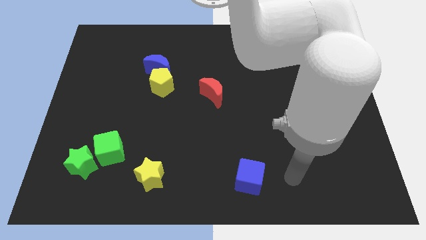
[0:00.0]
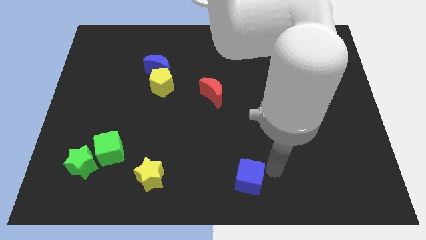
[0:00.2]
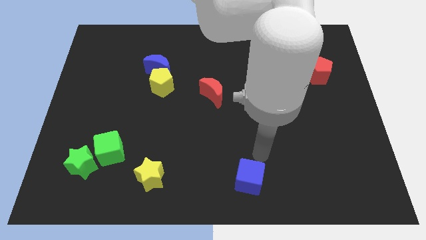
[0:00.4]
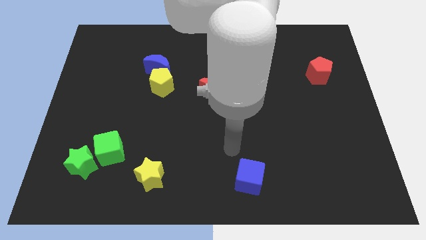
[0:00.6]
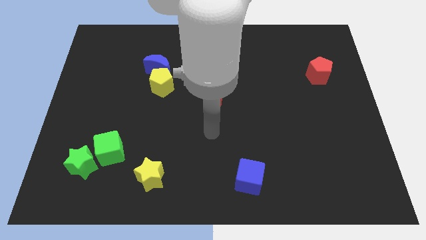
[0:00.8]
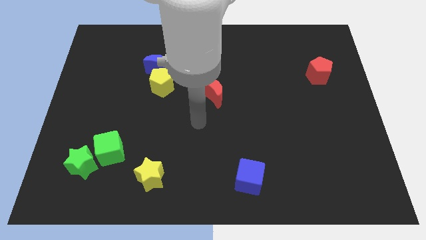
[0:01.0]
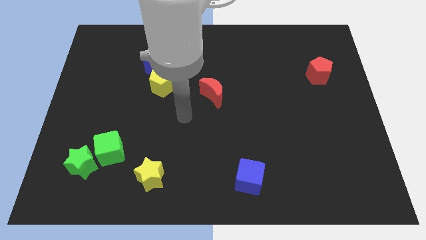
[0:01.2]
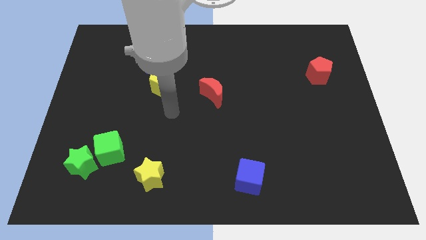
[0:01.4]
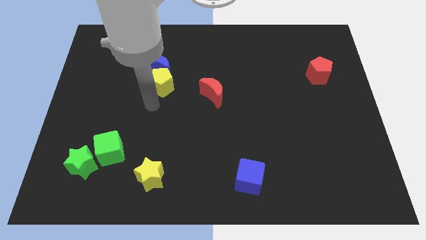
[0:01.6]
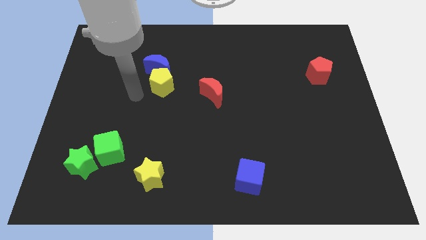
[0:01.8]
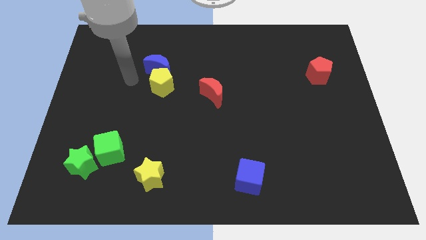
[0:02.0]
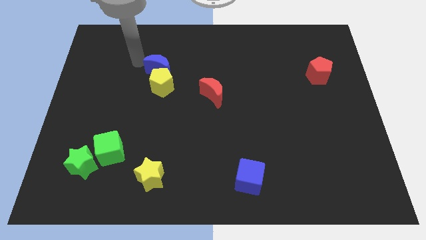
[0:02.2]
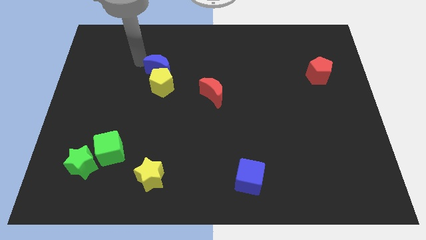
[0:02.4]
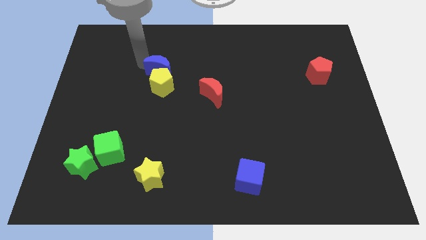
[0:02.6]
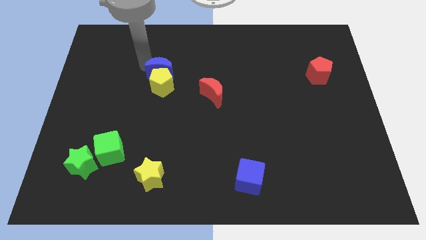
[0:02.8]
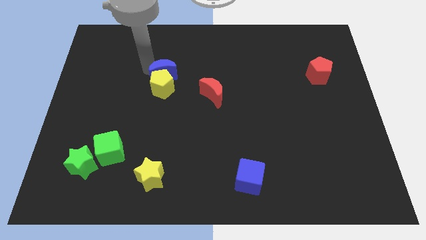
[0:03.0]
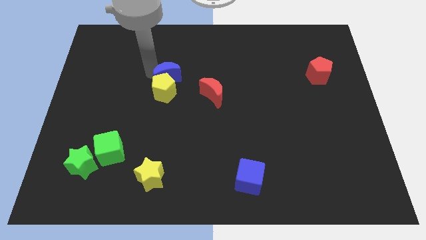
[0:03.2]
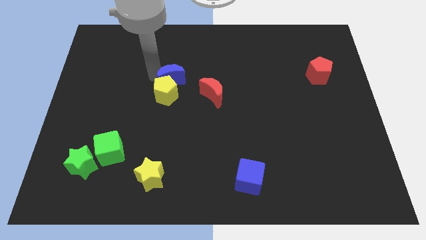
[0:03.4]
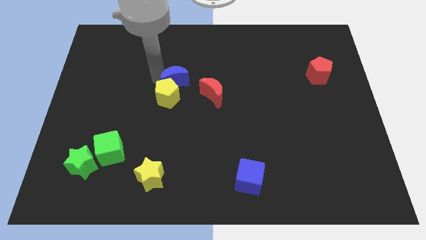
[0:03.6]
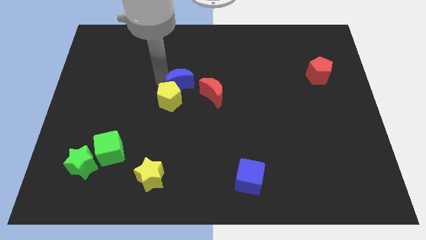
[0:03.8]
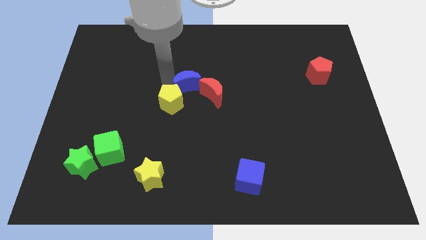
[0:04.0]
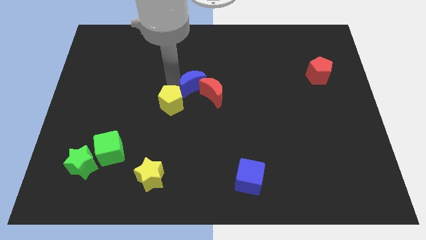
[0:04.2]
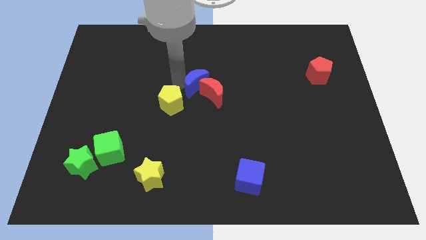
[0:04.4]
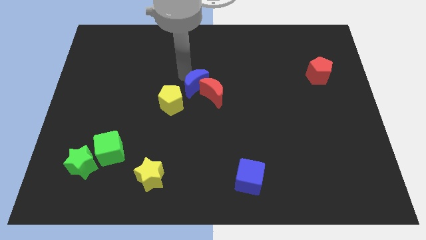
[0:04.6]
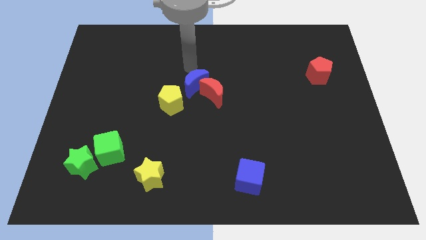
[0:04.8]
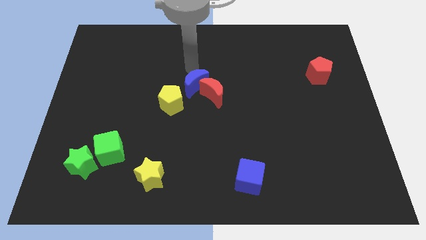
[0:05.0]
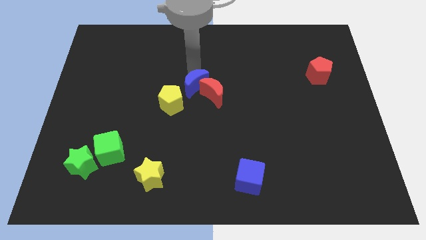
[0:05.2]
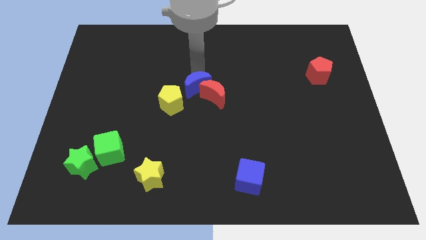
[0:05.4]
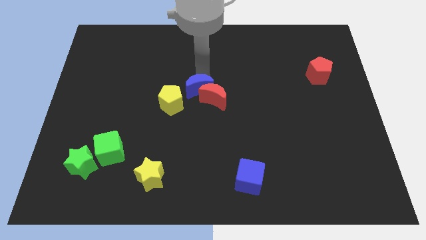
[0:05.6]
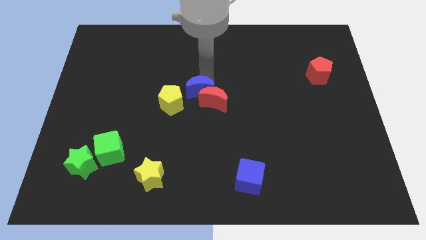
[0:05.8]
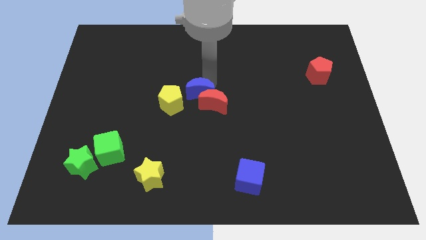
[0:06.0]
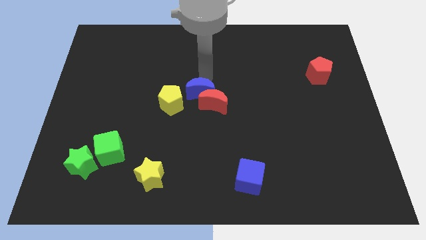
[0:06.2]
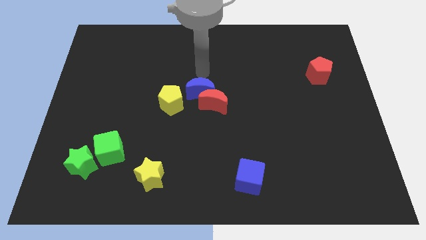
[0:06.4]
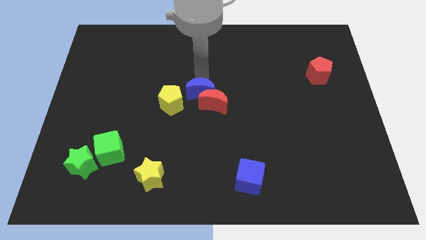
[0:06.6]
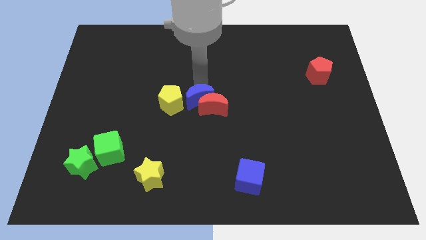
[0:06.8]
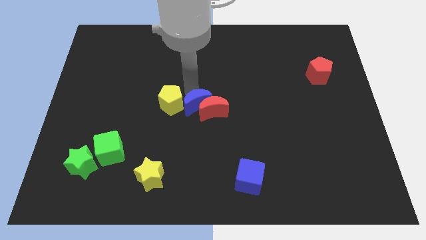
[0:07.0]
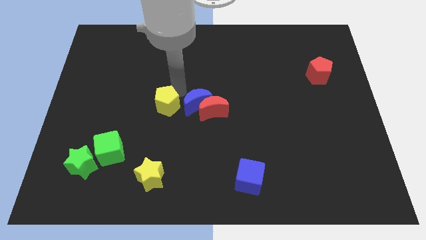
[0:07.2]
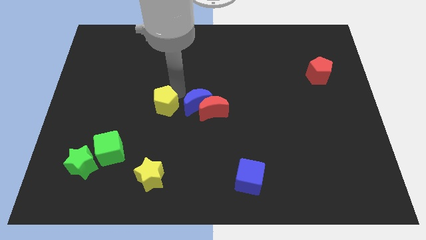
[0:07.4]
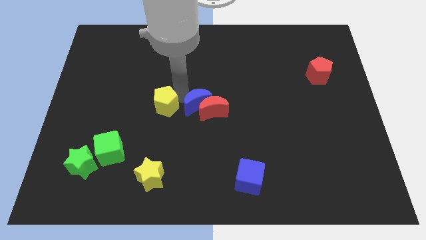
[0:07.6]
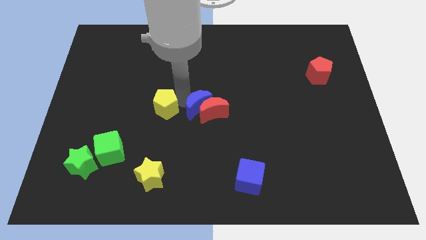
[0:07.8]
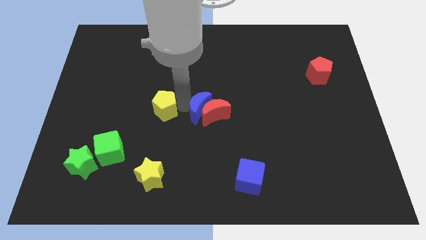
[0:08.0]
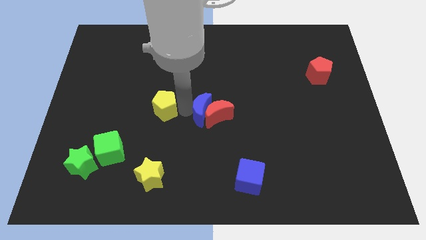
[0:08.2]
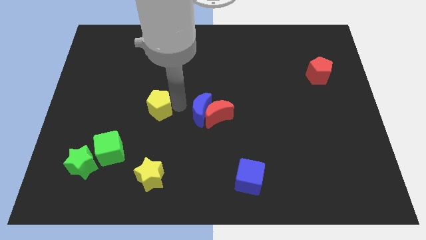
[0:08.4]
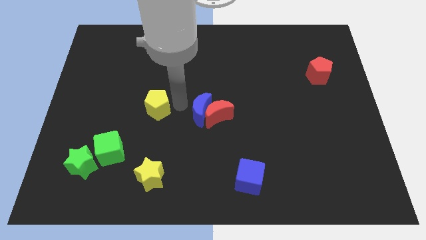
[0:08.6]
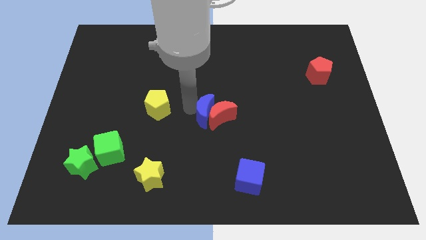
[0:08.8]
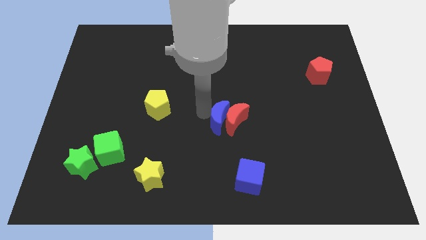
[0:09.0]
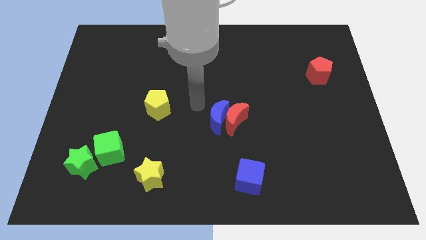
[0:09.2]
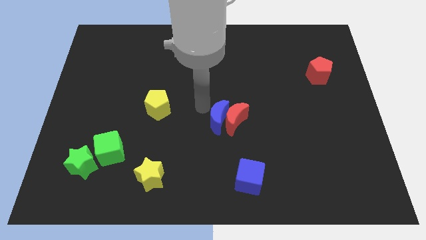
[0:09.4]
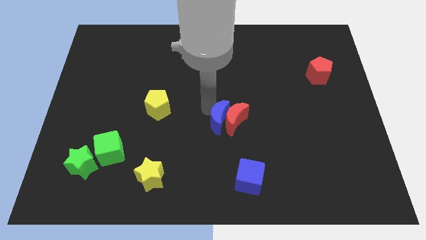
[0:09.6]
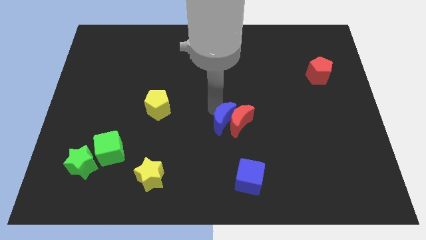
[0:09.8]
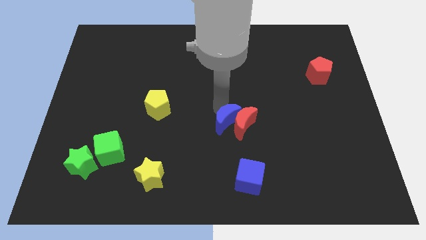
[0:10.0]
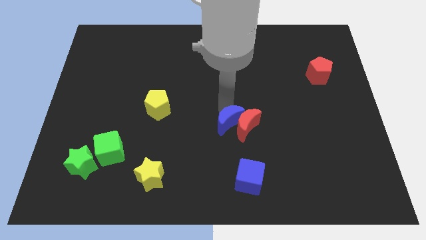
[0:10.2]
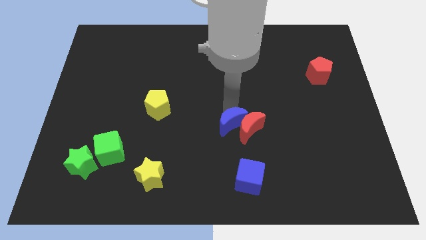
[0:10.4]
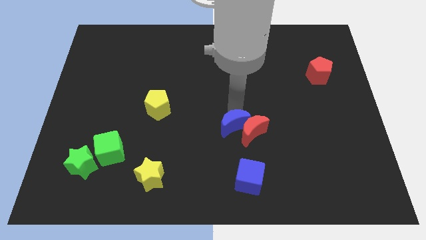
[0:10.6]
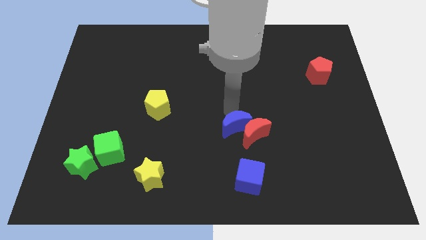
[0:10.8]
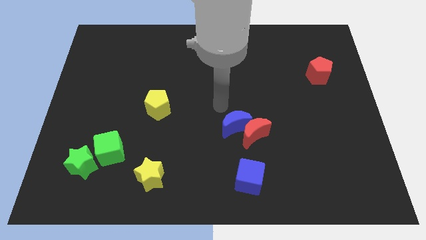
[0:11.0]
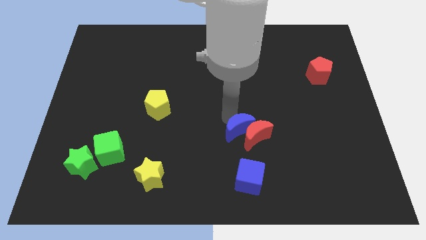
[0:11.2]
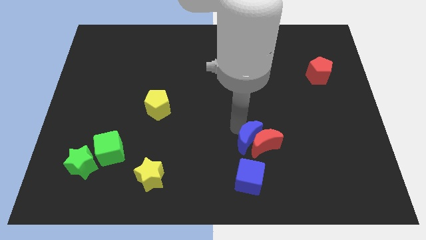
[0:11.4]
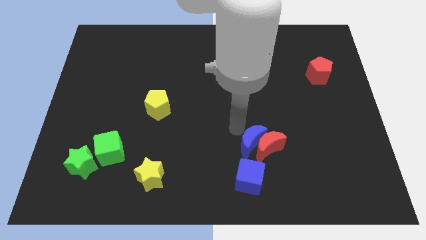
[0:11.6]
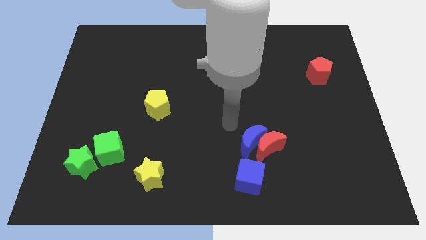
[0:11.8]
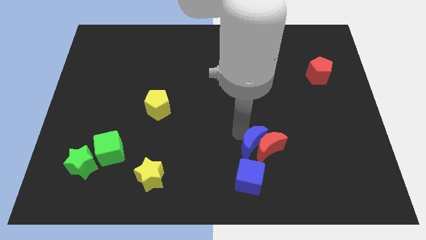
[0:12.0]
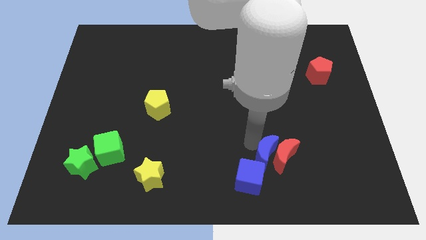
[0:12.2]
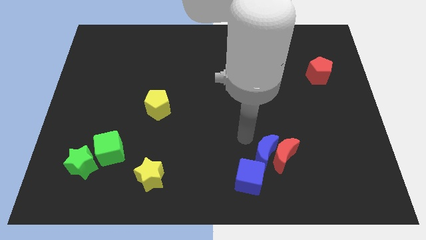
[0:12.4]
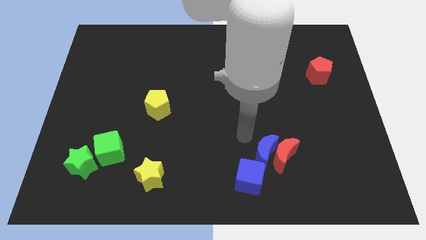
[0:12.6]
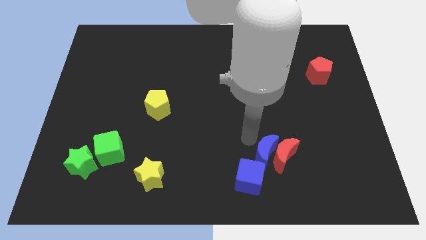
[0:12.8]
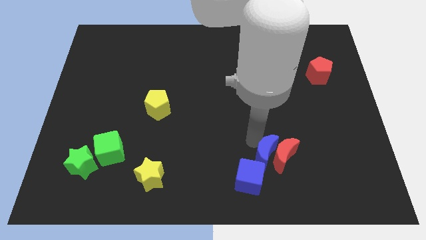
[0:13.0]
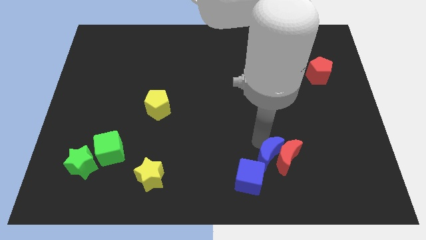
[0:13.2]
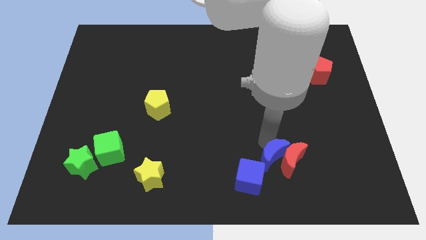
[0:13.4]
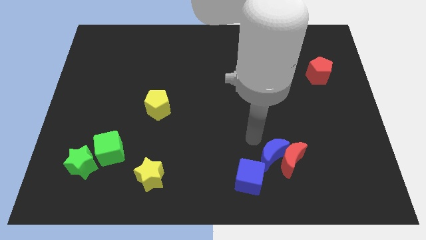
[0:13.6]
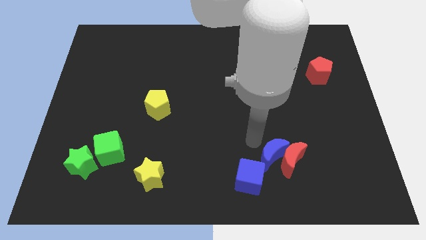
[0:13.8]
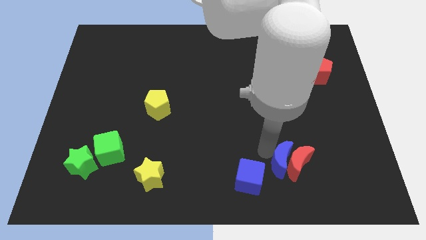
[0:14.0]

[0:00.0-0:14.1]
push the blue moon to the right side of the blue cube
